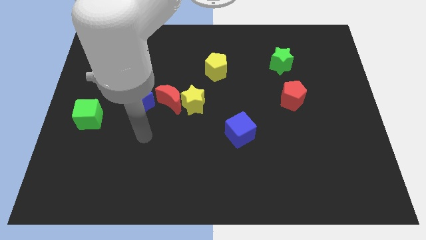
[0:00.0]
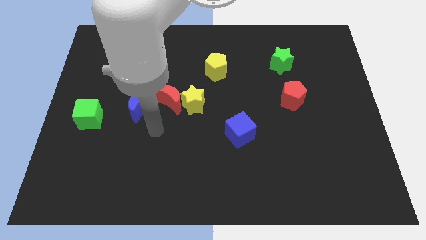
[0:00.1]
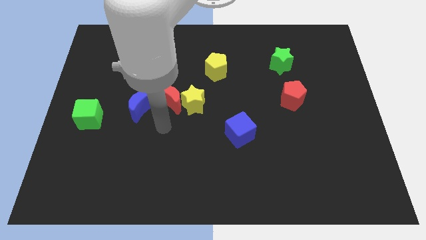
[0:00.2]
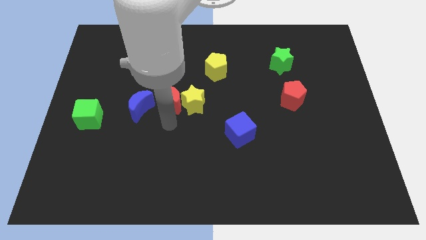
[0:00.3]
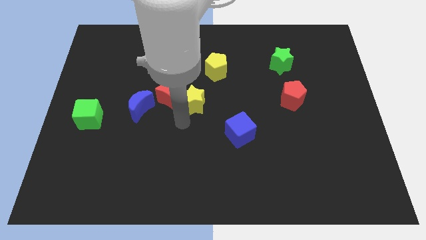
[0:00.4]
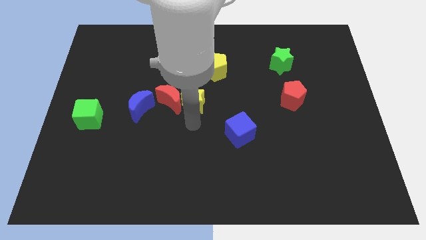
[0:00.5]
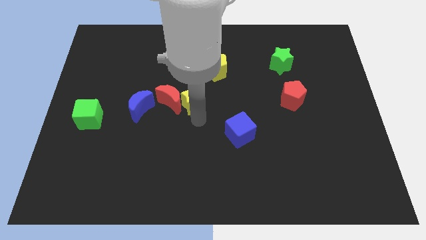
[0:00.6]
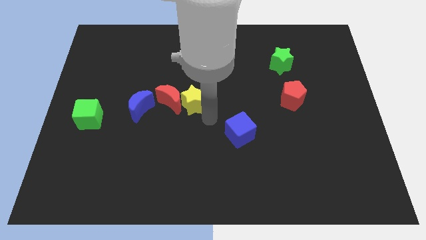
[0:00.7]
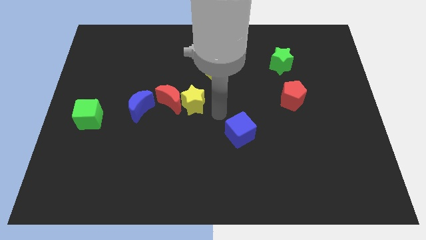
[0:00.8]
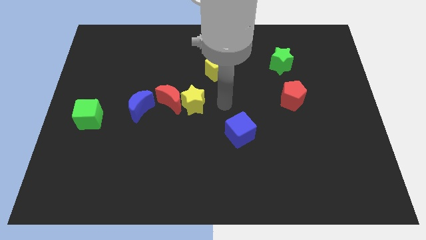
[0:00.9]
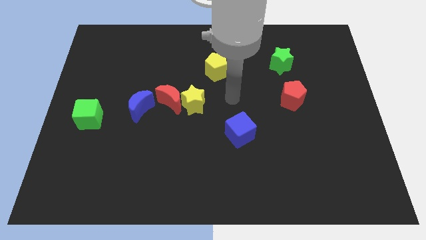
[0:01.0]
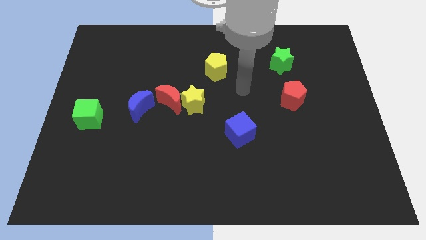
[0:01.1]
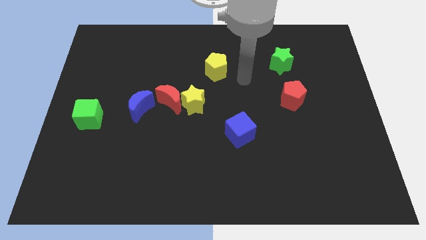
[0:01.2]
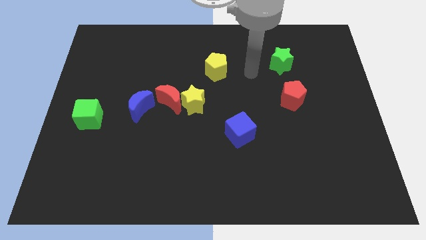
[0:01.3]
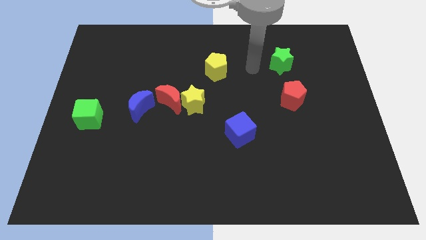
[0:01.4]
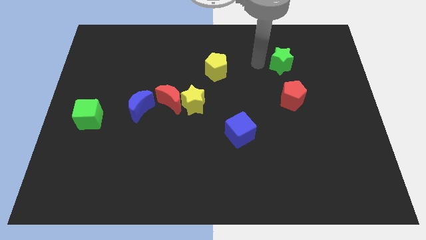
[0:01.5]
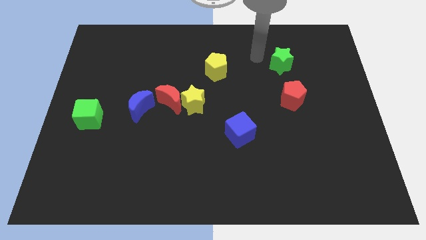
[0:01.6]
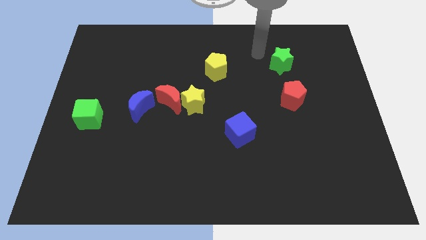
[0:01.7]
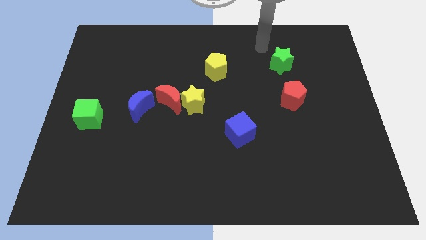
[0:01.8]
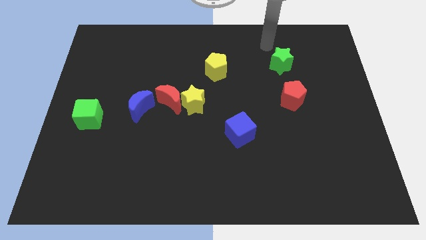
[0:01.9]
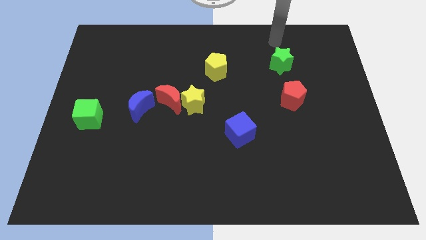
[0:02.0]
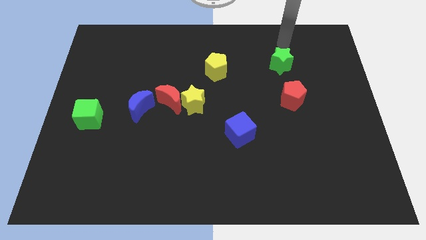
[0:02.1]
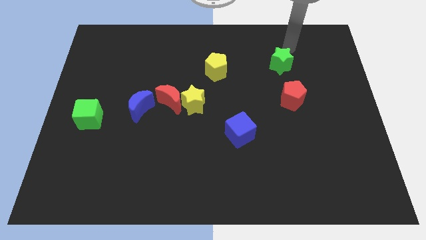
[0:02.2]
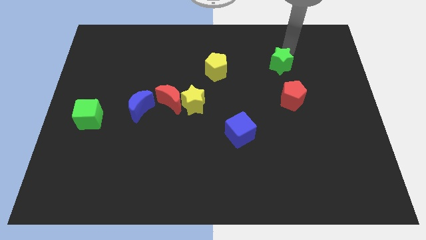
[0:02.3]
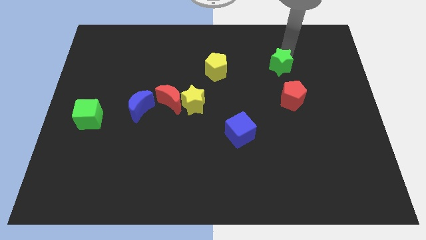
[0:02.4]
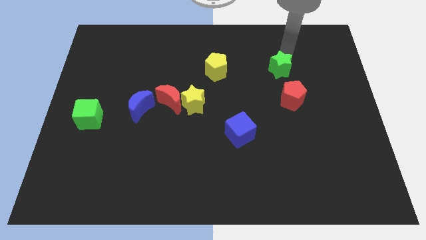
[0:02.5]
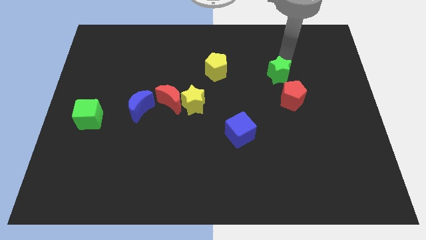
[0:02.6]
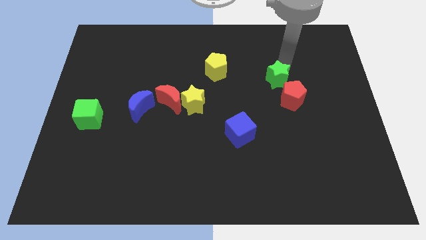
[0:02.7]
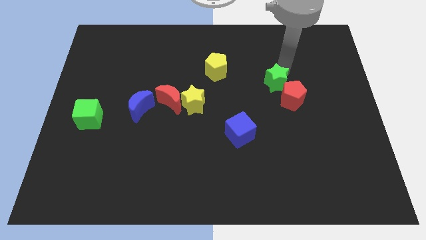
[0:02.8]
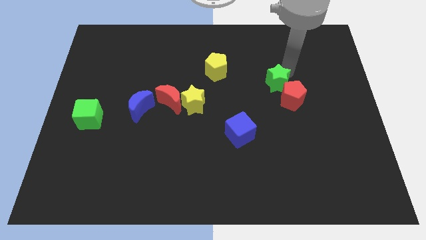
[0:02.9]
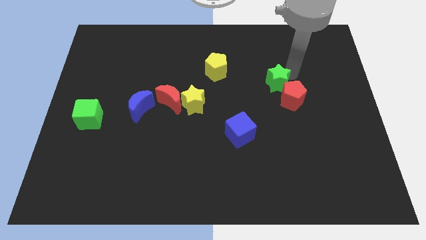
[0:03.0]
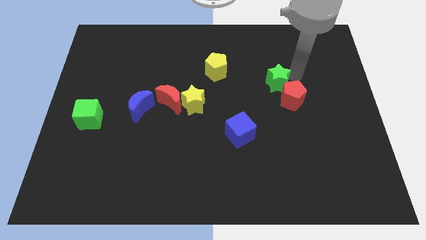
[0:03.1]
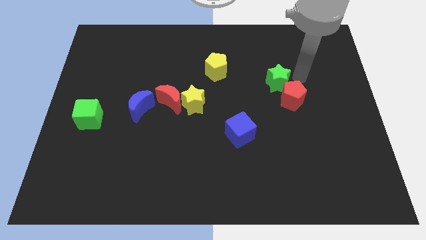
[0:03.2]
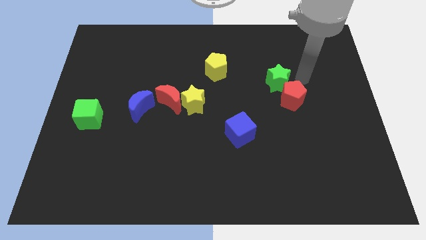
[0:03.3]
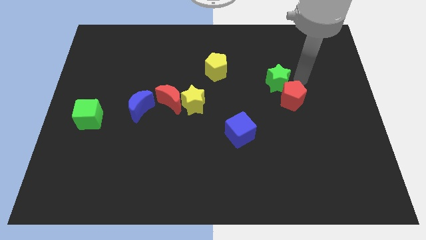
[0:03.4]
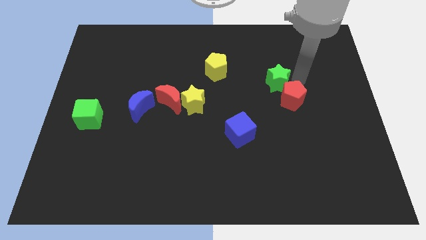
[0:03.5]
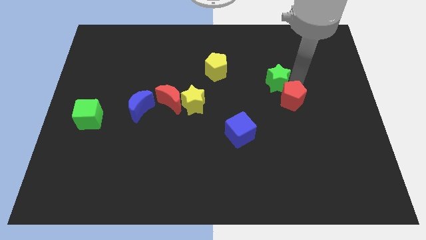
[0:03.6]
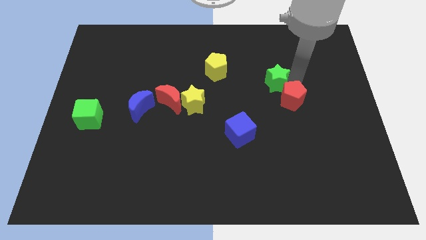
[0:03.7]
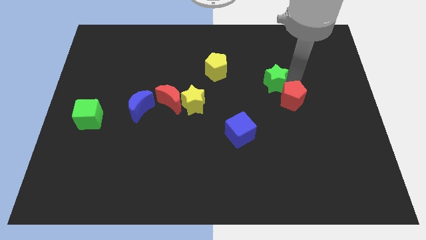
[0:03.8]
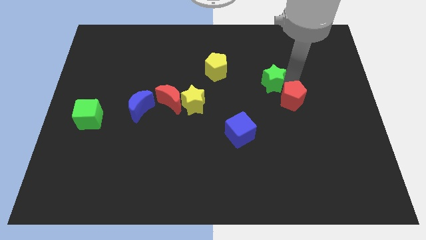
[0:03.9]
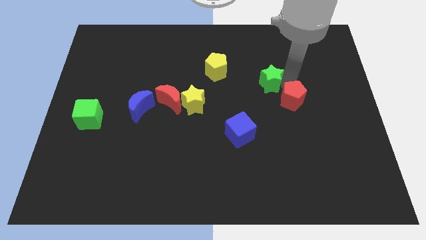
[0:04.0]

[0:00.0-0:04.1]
slightly slide the green star downwards and left diagonally

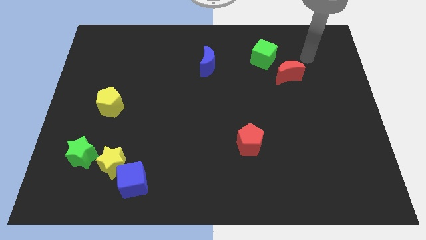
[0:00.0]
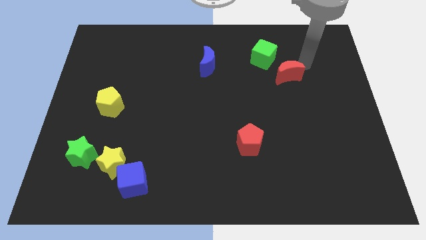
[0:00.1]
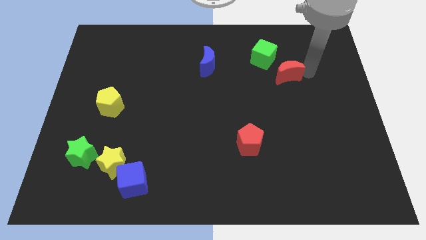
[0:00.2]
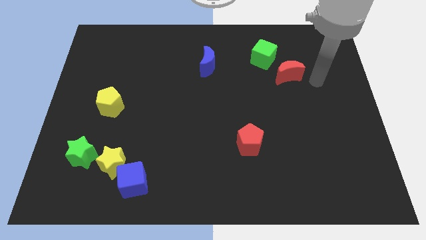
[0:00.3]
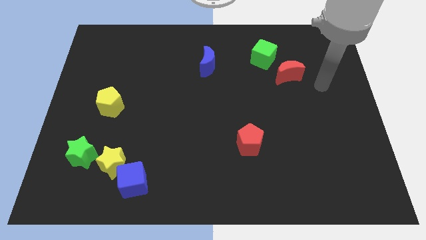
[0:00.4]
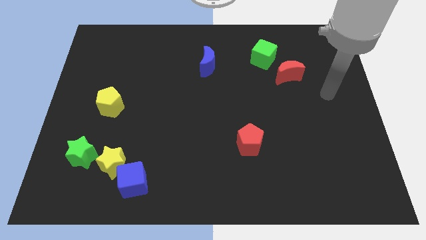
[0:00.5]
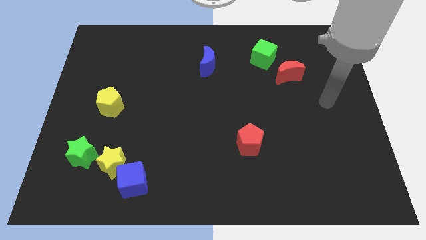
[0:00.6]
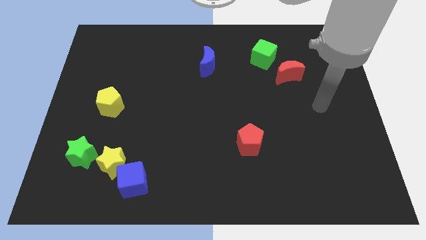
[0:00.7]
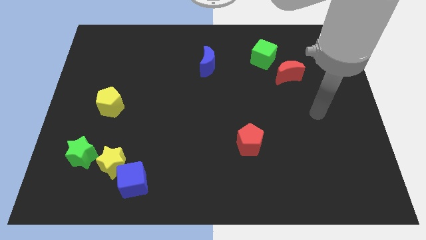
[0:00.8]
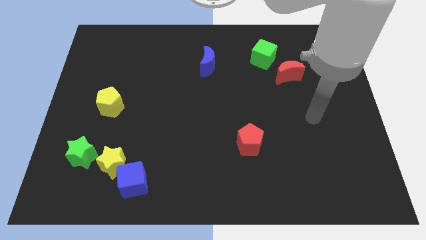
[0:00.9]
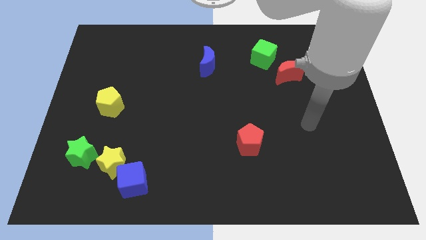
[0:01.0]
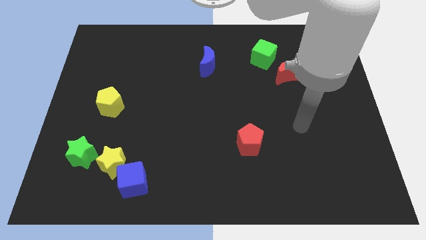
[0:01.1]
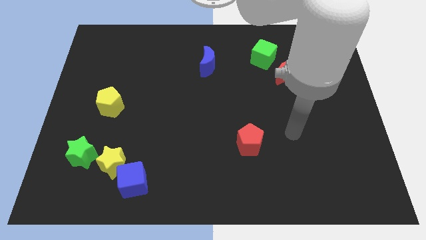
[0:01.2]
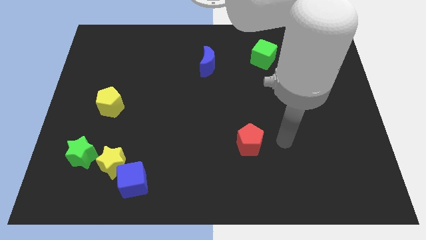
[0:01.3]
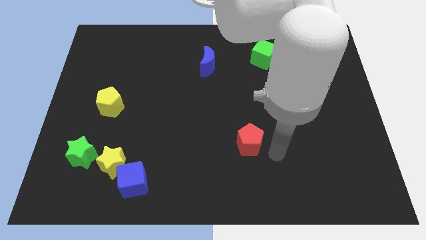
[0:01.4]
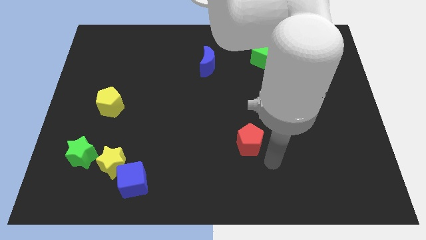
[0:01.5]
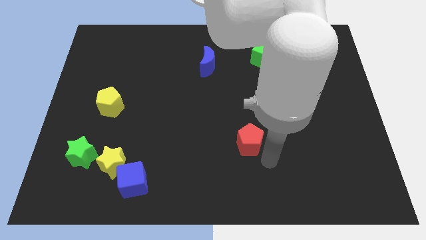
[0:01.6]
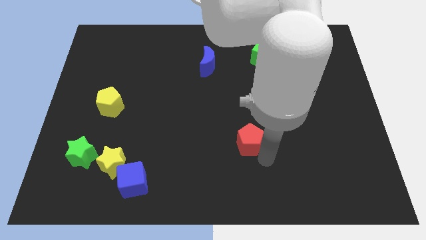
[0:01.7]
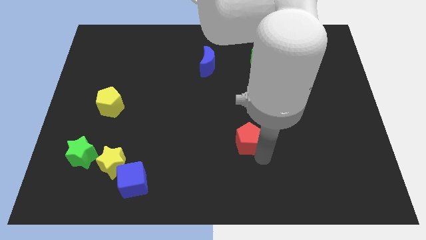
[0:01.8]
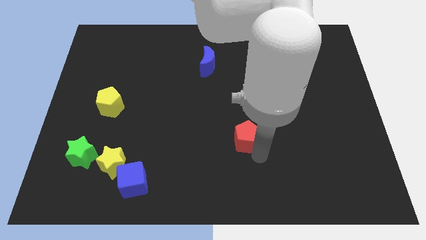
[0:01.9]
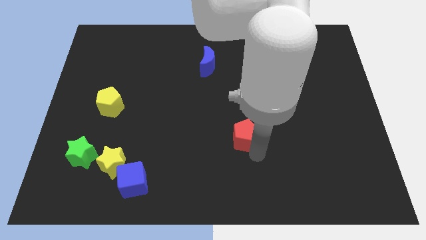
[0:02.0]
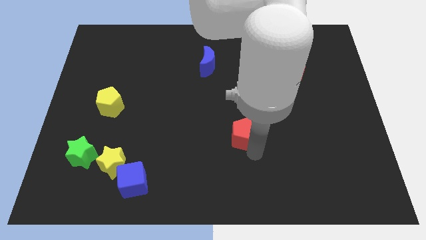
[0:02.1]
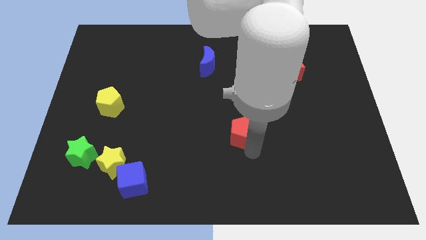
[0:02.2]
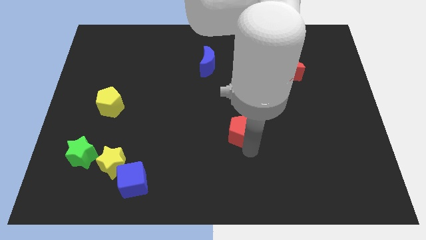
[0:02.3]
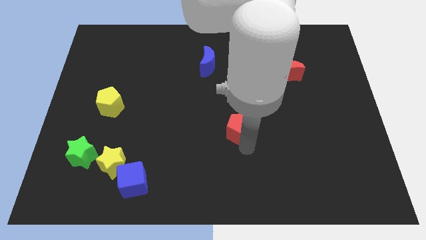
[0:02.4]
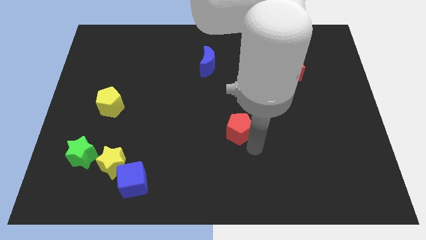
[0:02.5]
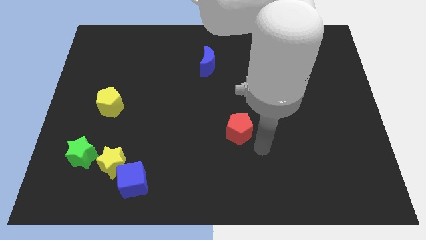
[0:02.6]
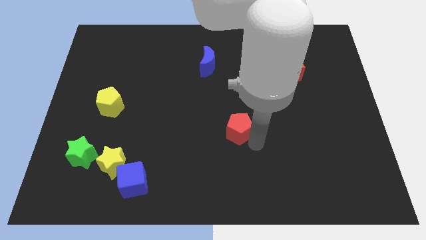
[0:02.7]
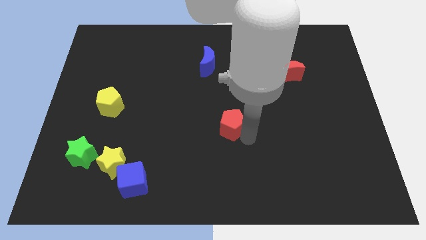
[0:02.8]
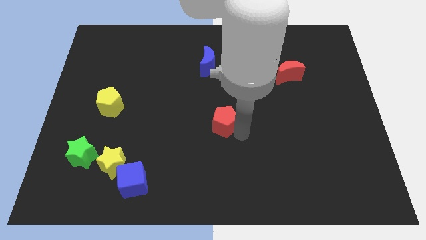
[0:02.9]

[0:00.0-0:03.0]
slightly move the red pentagon upwards and to the left diagonally

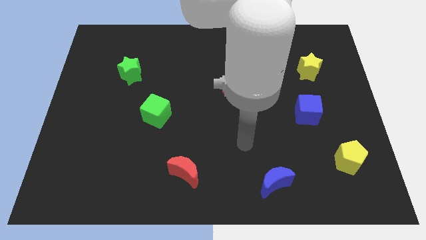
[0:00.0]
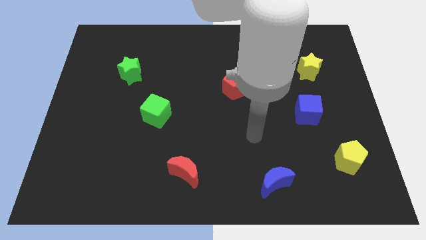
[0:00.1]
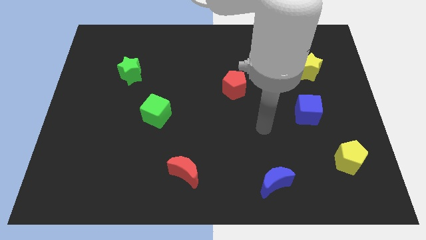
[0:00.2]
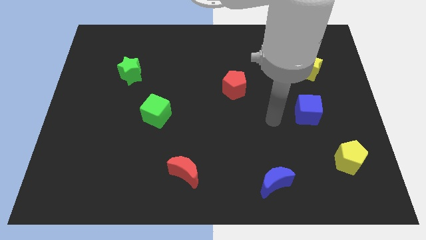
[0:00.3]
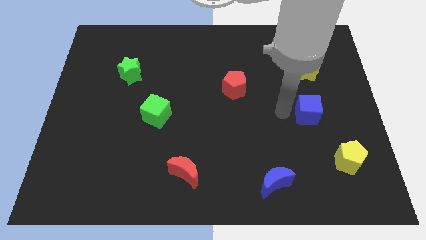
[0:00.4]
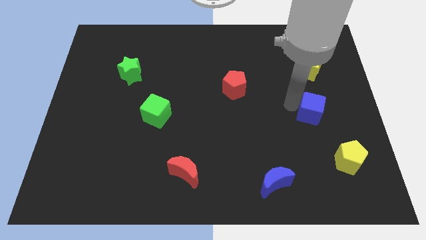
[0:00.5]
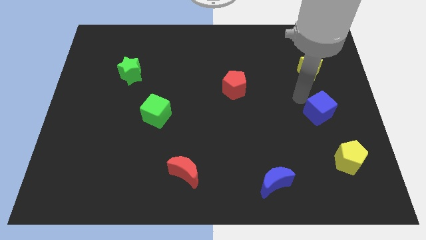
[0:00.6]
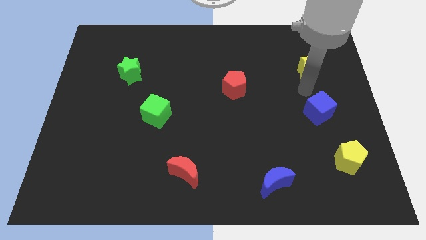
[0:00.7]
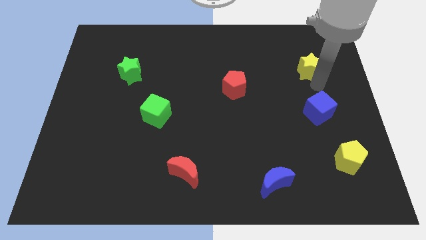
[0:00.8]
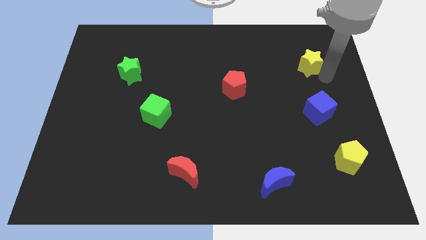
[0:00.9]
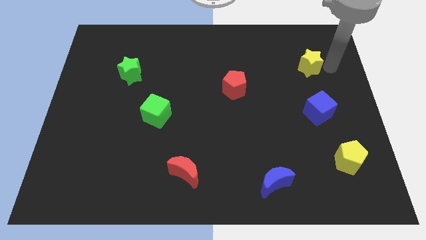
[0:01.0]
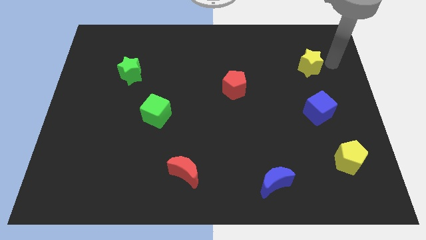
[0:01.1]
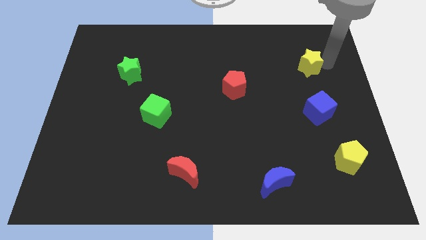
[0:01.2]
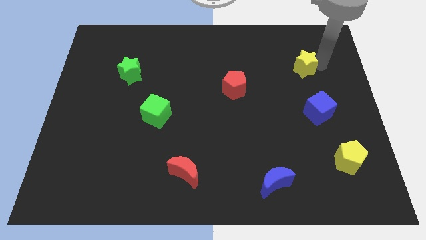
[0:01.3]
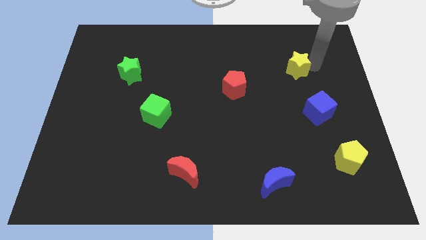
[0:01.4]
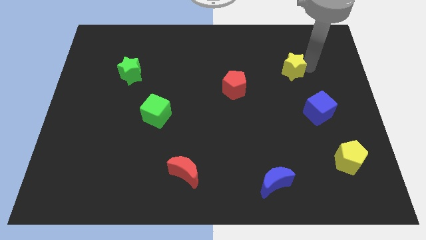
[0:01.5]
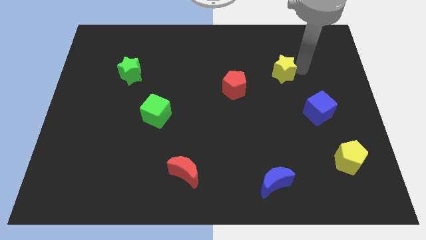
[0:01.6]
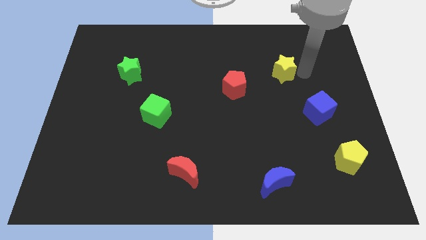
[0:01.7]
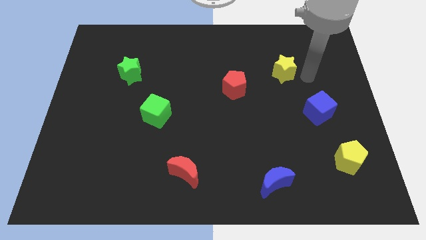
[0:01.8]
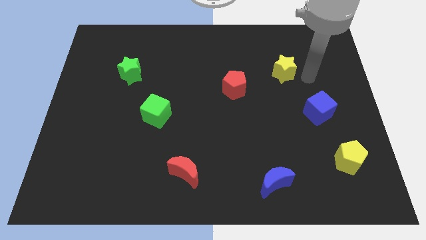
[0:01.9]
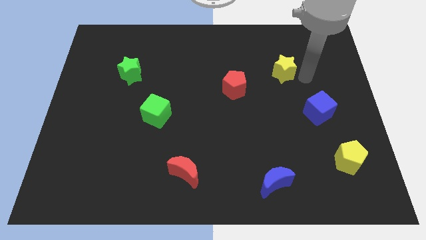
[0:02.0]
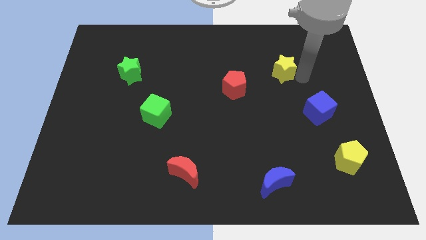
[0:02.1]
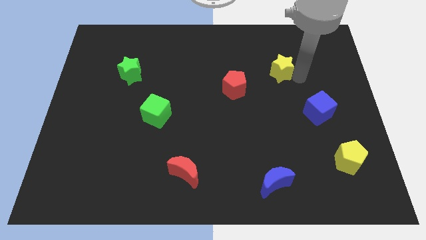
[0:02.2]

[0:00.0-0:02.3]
push the yellow star left a little bit
